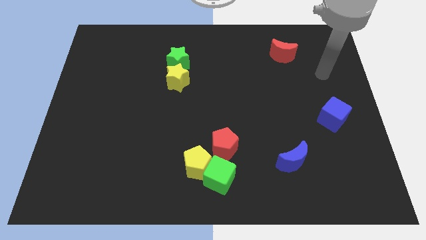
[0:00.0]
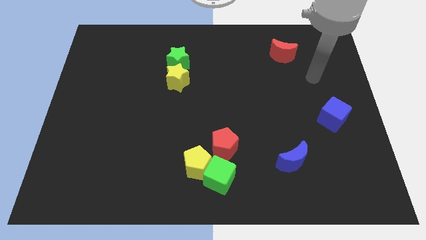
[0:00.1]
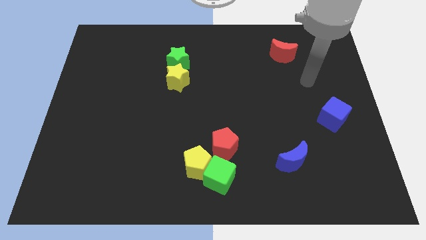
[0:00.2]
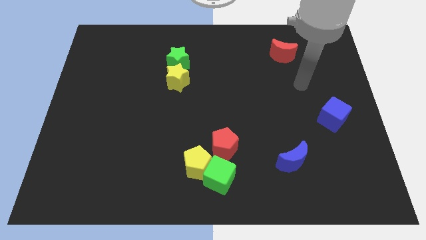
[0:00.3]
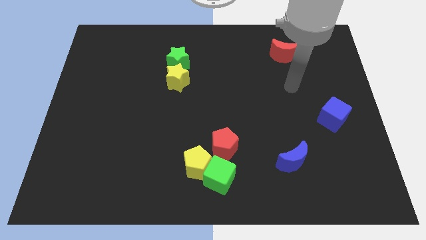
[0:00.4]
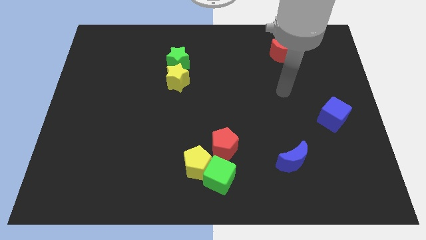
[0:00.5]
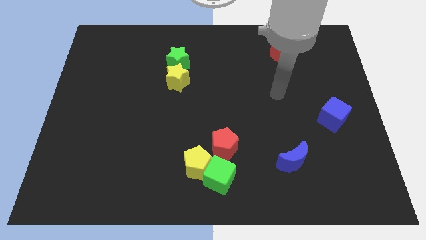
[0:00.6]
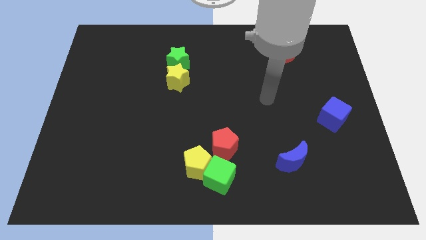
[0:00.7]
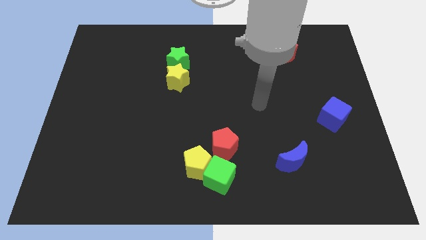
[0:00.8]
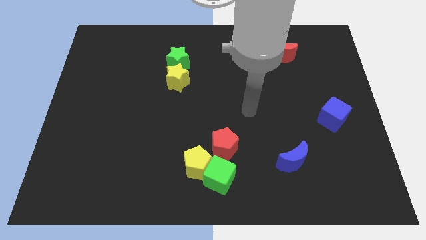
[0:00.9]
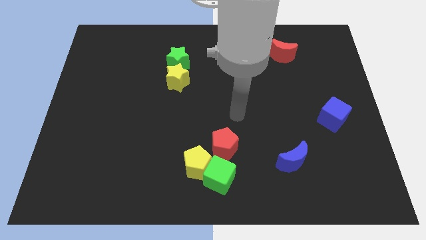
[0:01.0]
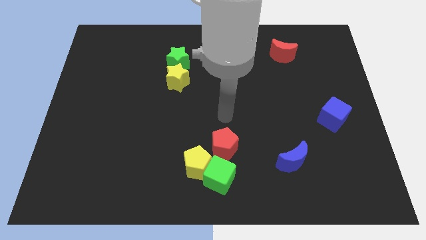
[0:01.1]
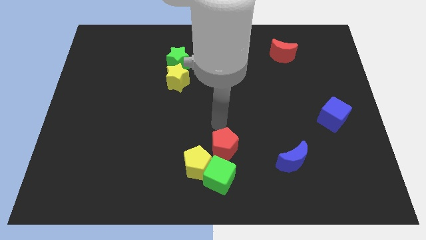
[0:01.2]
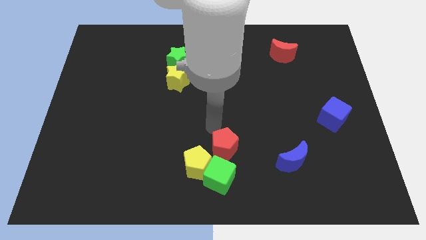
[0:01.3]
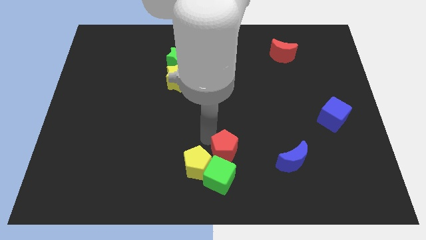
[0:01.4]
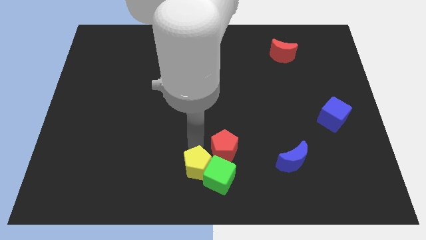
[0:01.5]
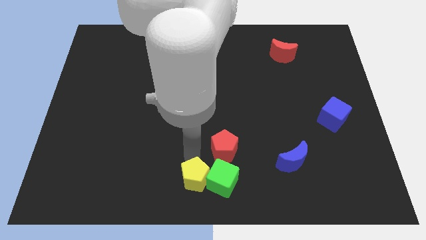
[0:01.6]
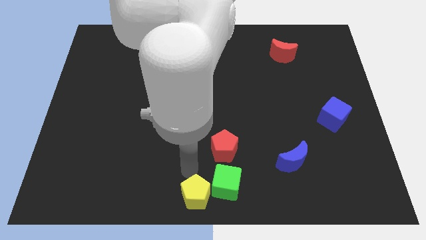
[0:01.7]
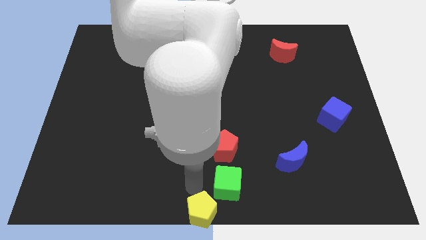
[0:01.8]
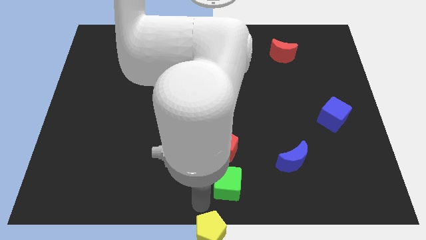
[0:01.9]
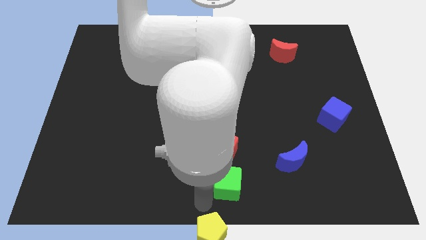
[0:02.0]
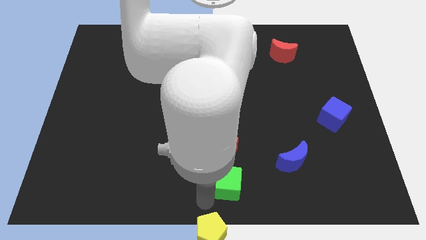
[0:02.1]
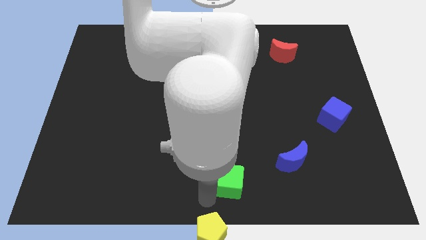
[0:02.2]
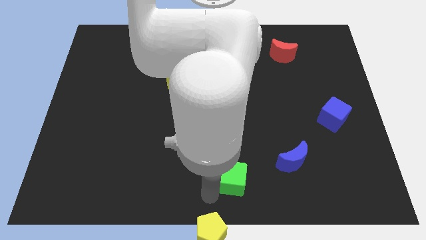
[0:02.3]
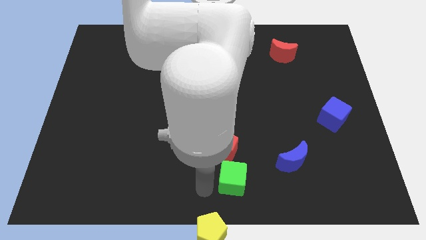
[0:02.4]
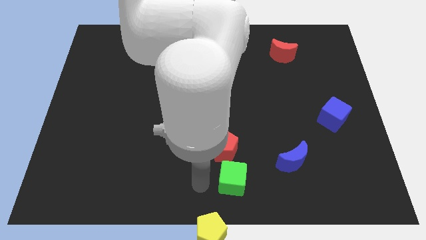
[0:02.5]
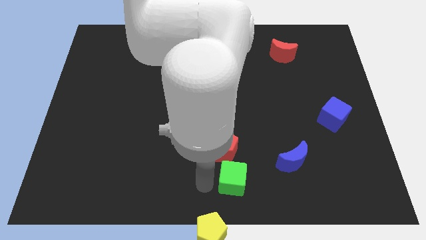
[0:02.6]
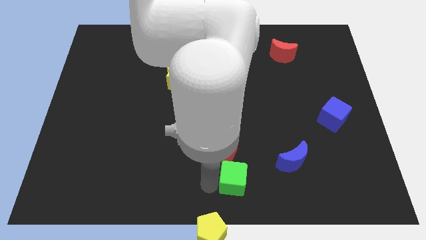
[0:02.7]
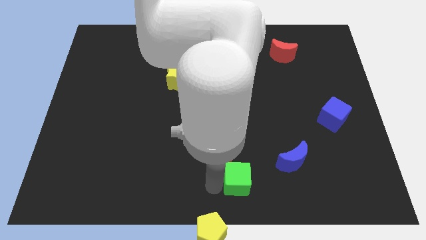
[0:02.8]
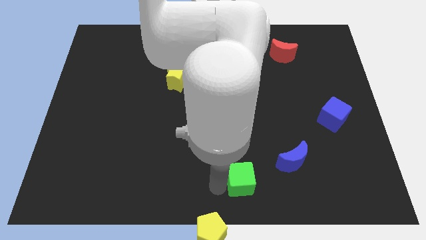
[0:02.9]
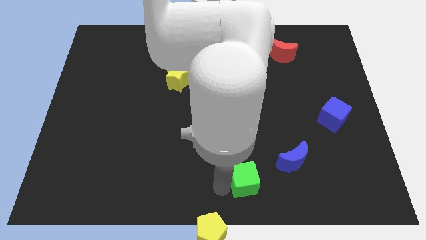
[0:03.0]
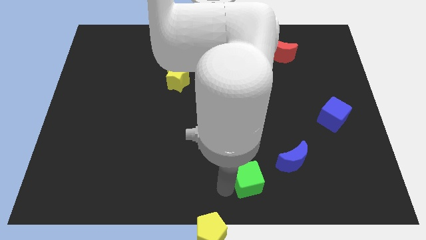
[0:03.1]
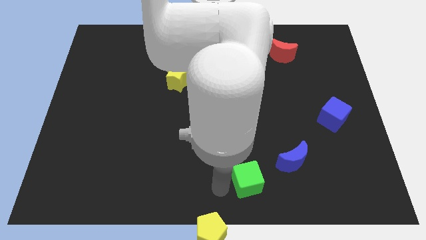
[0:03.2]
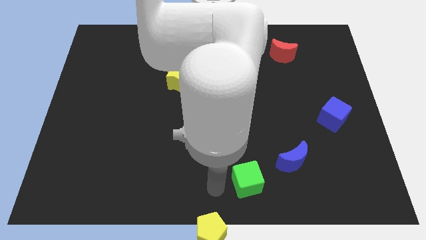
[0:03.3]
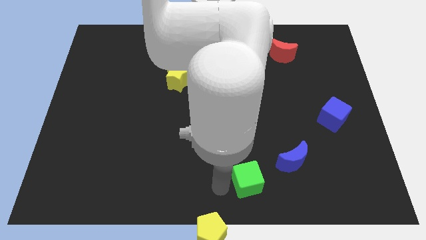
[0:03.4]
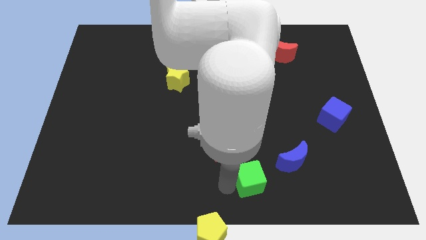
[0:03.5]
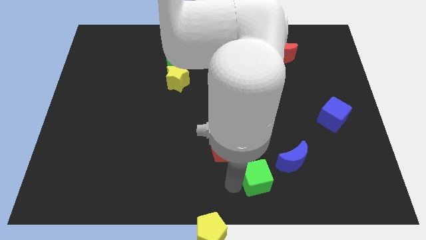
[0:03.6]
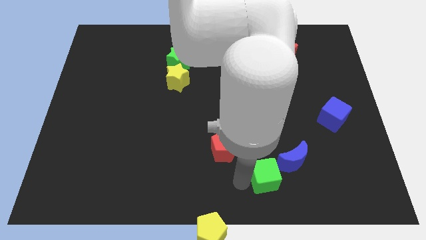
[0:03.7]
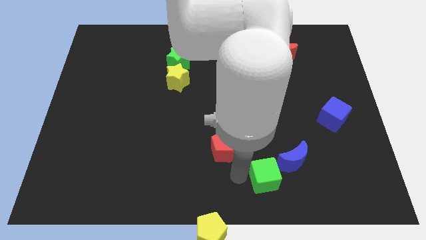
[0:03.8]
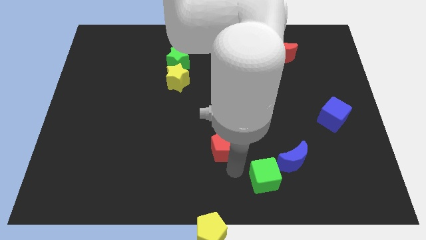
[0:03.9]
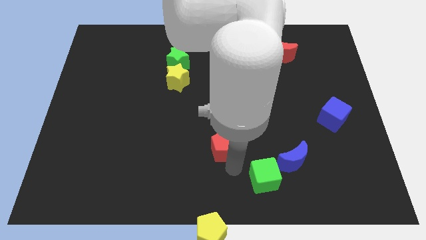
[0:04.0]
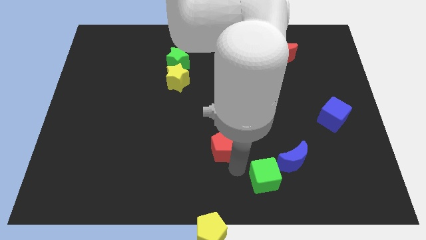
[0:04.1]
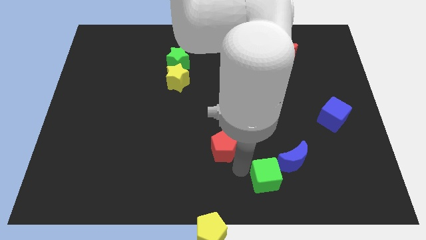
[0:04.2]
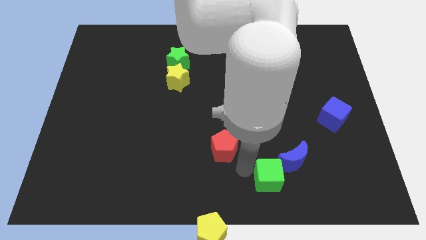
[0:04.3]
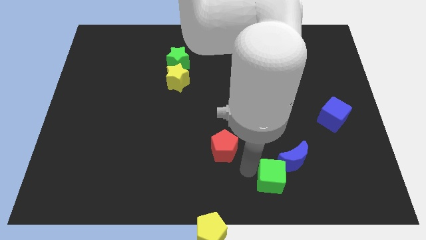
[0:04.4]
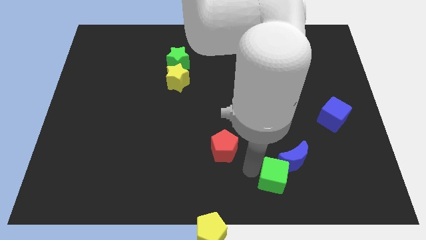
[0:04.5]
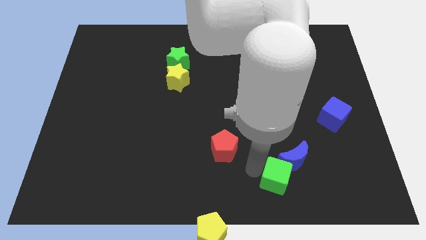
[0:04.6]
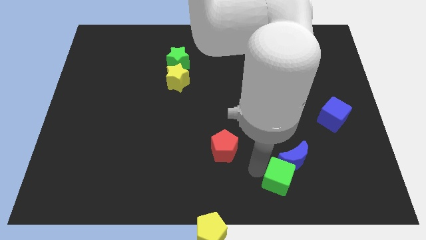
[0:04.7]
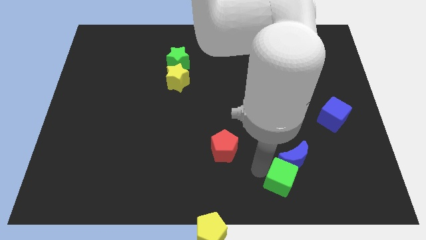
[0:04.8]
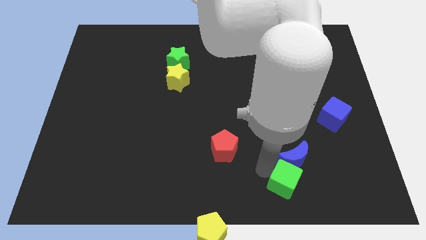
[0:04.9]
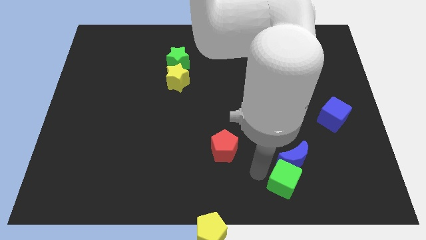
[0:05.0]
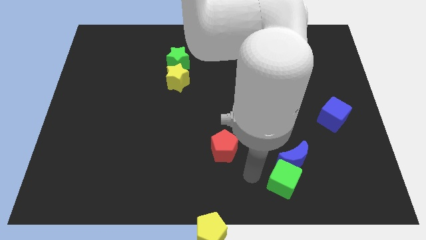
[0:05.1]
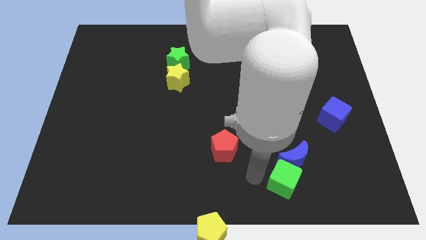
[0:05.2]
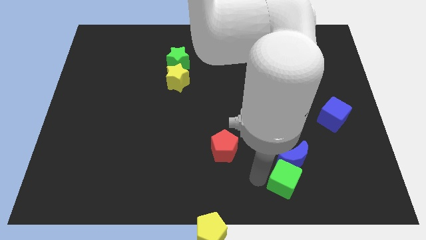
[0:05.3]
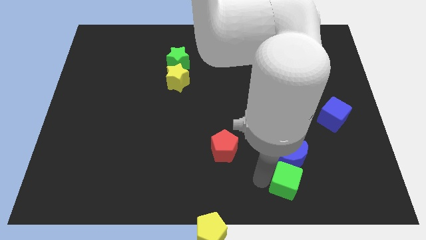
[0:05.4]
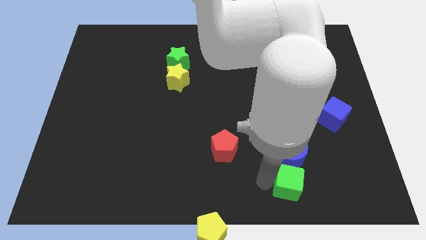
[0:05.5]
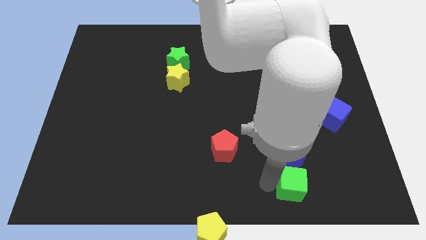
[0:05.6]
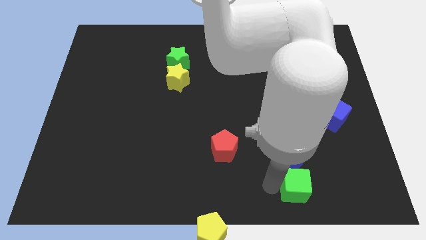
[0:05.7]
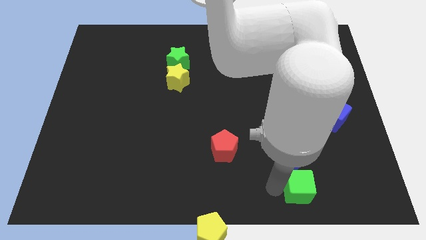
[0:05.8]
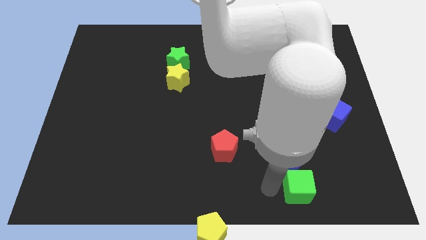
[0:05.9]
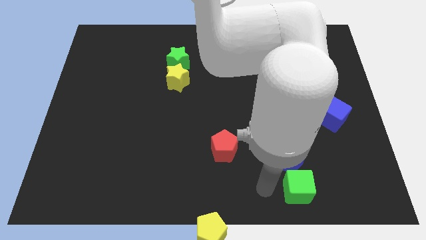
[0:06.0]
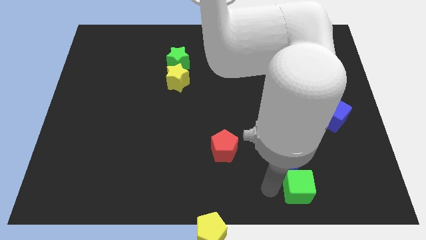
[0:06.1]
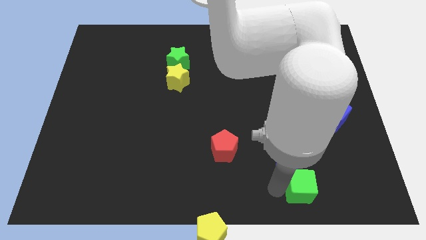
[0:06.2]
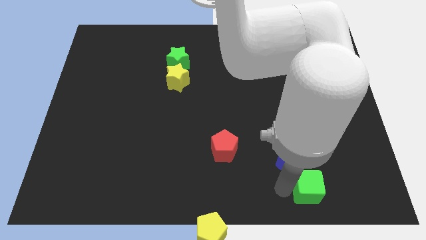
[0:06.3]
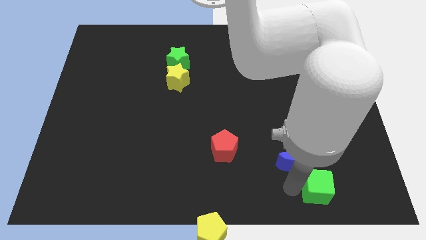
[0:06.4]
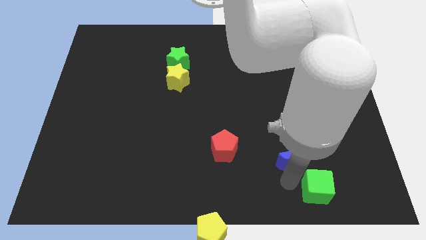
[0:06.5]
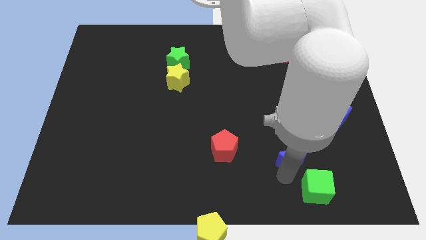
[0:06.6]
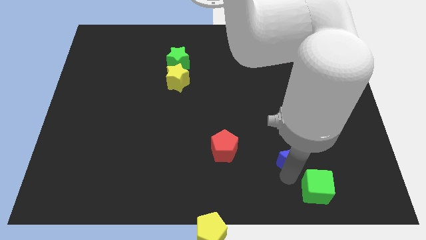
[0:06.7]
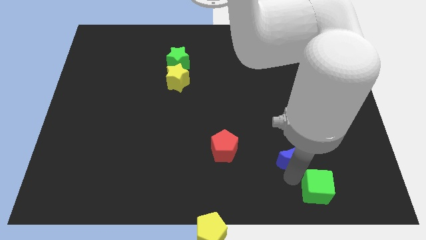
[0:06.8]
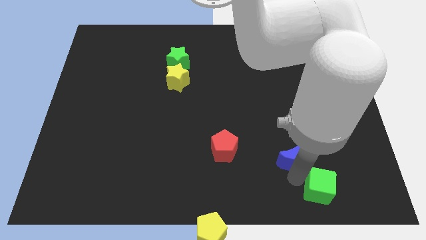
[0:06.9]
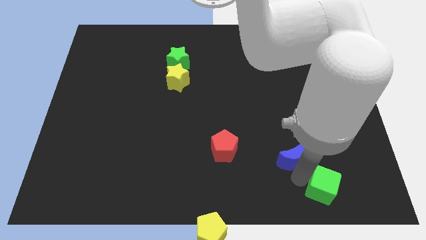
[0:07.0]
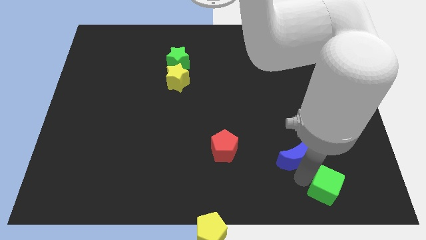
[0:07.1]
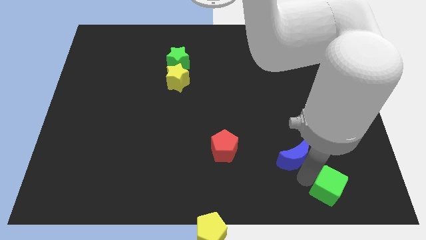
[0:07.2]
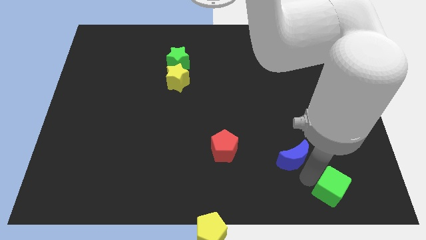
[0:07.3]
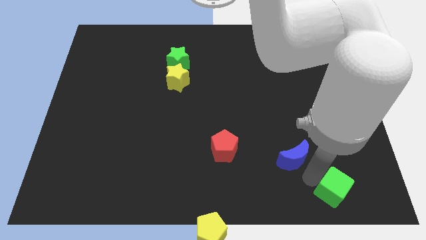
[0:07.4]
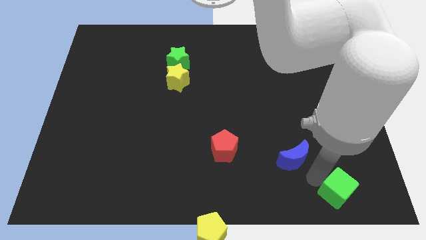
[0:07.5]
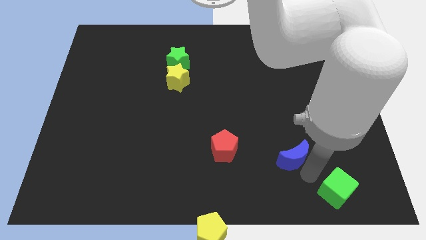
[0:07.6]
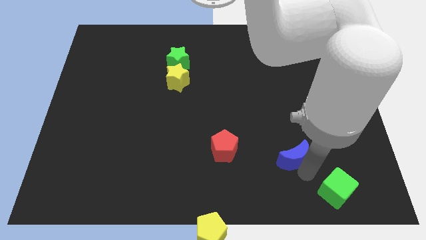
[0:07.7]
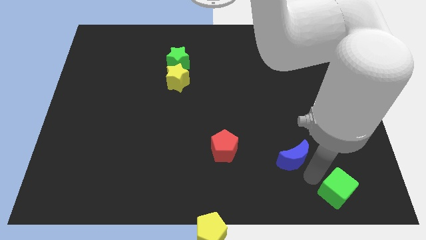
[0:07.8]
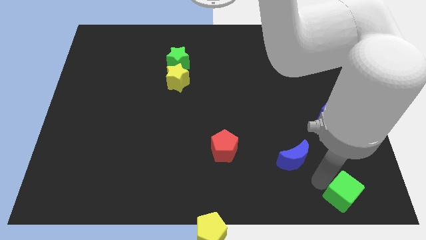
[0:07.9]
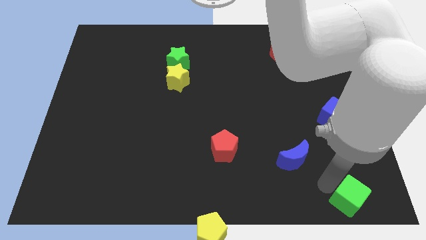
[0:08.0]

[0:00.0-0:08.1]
put the green cube to the bottom right of the board
